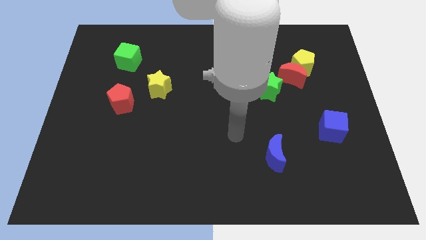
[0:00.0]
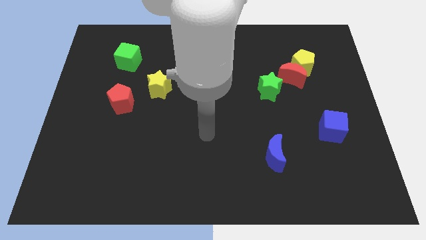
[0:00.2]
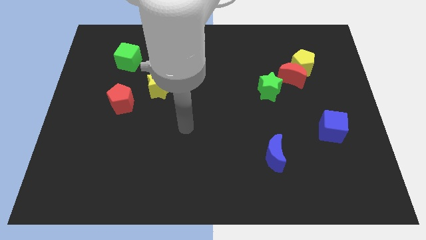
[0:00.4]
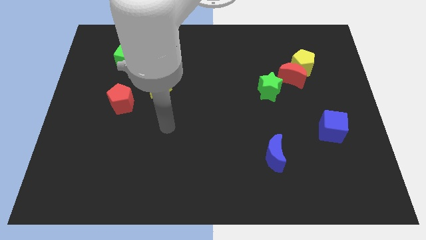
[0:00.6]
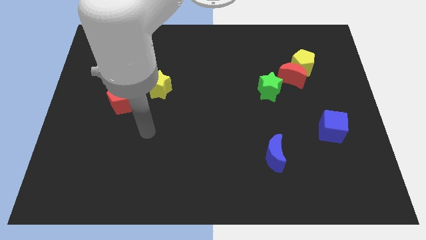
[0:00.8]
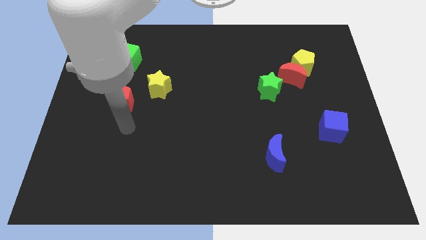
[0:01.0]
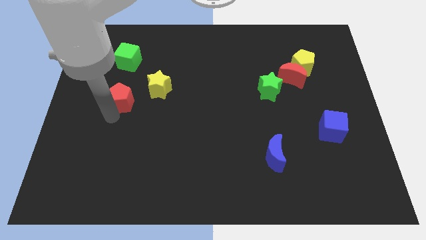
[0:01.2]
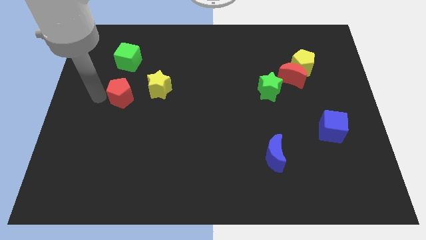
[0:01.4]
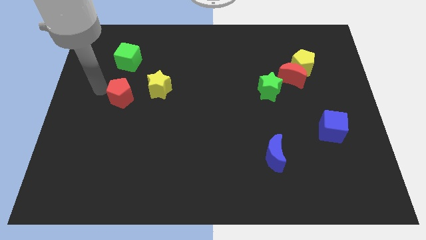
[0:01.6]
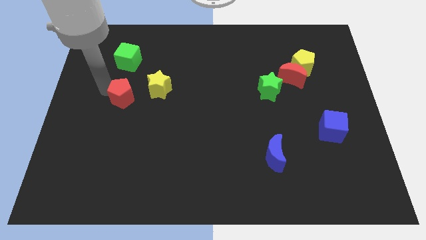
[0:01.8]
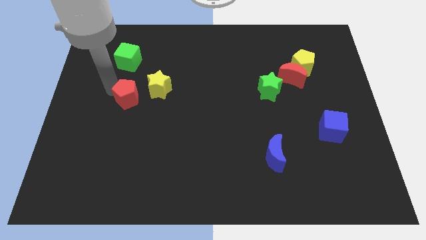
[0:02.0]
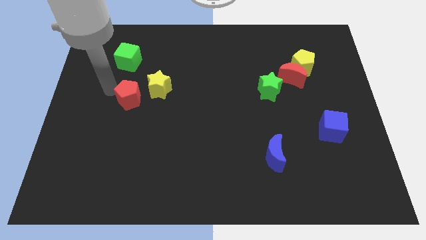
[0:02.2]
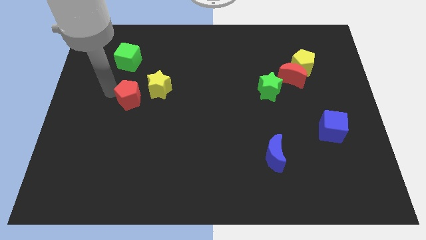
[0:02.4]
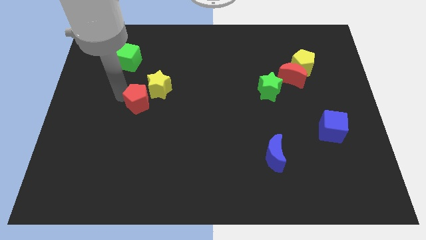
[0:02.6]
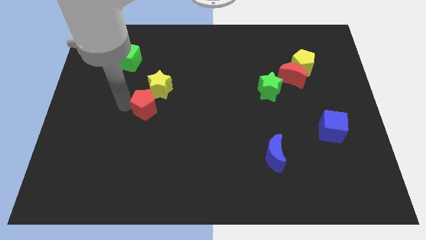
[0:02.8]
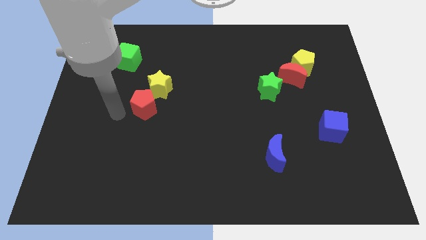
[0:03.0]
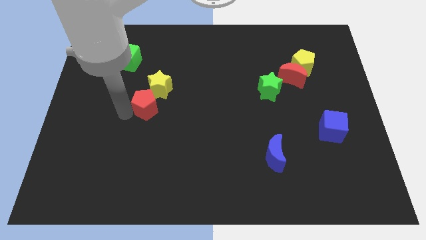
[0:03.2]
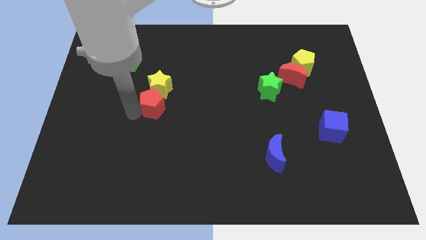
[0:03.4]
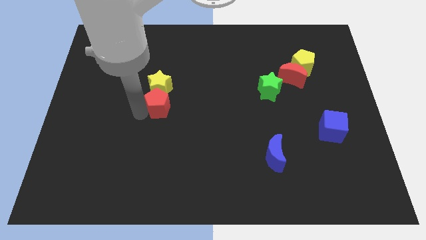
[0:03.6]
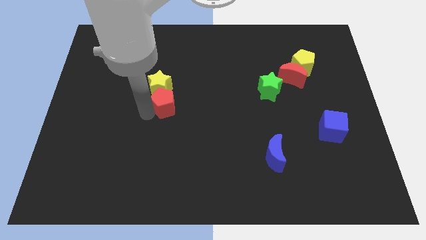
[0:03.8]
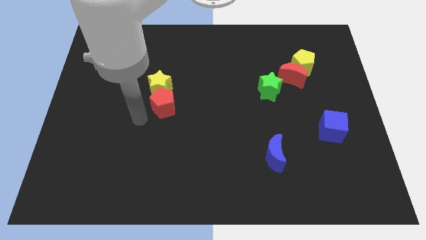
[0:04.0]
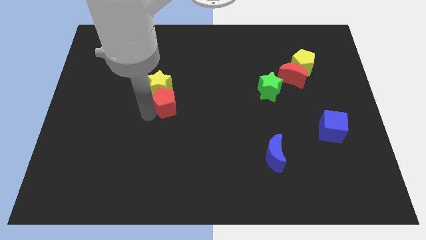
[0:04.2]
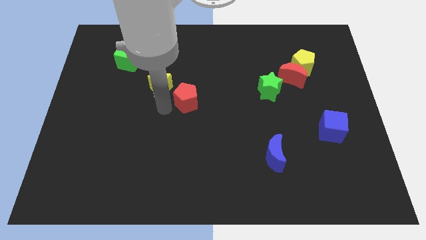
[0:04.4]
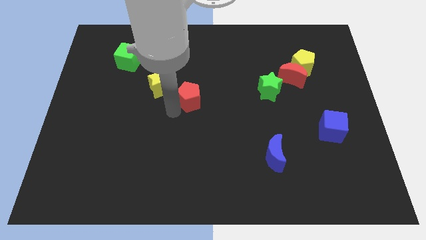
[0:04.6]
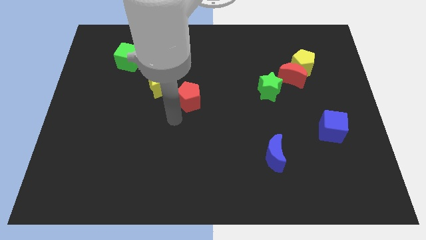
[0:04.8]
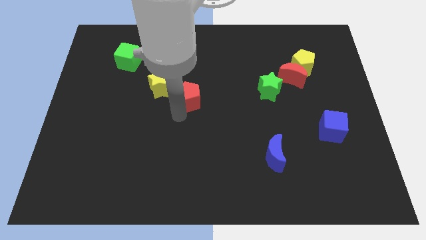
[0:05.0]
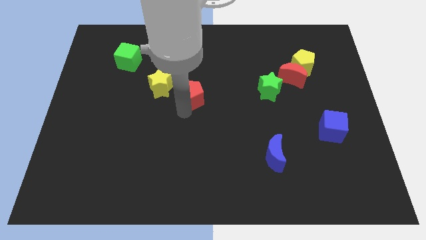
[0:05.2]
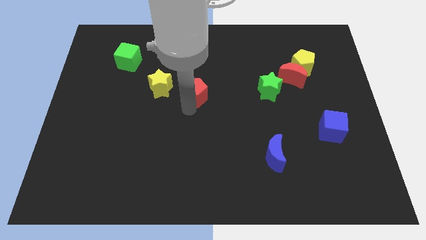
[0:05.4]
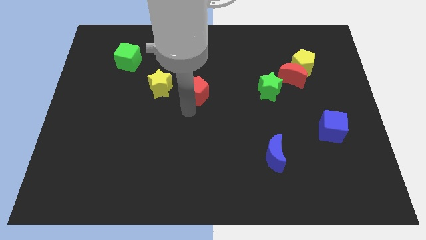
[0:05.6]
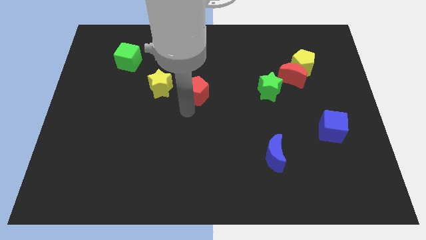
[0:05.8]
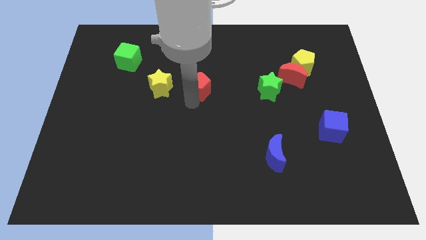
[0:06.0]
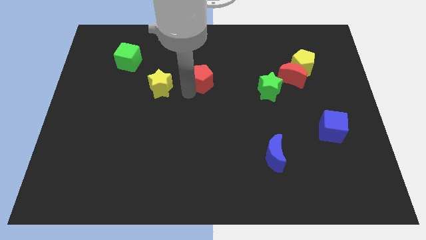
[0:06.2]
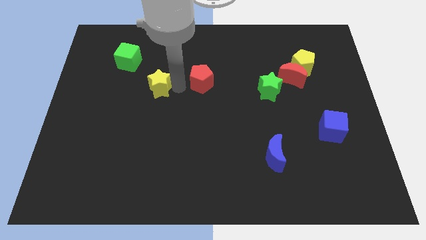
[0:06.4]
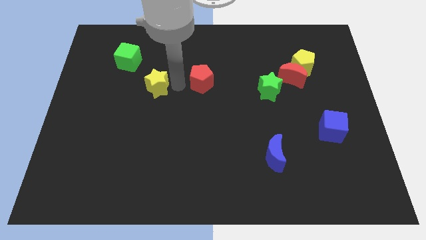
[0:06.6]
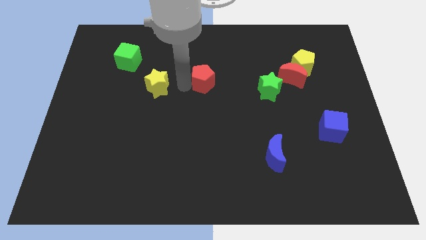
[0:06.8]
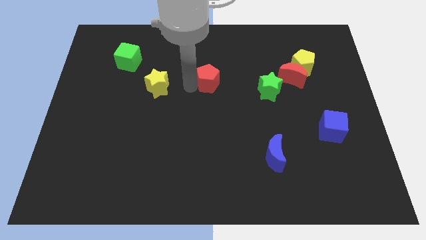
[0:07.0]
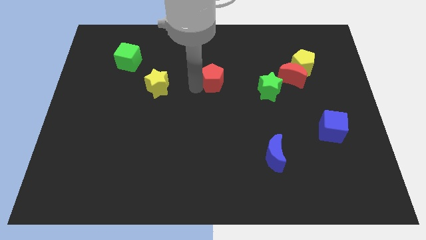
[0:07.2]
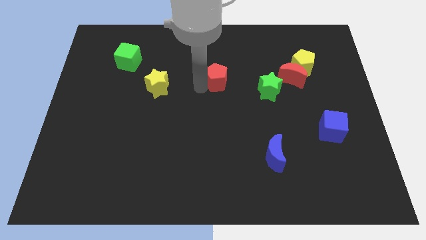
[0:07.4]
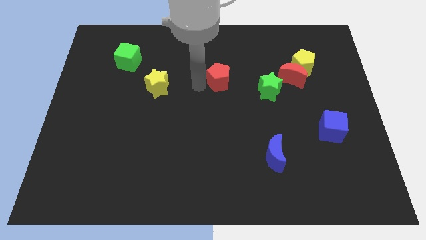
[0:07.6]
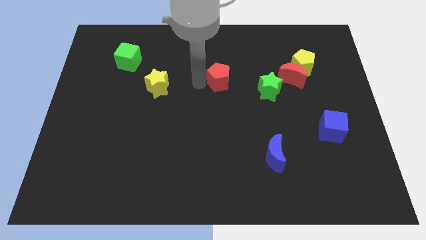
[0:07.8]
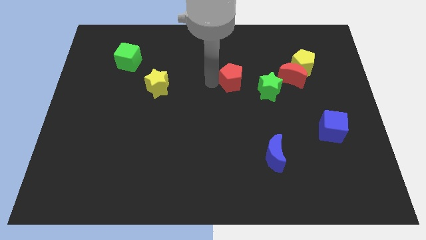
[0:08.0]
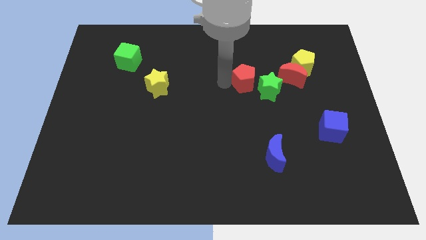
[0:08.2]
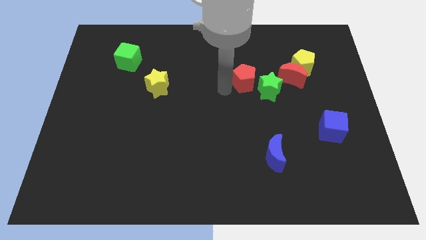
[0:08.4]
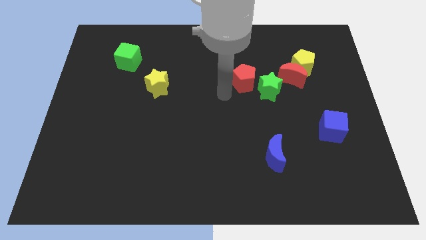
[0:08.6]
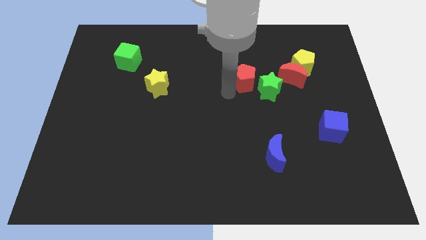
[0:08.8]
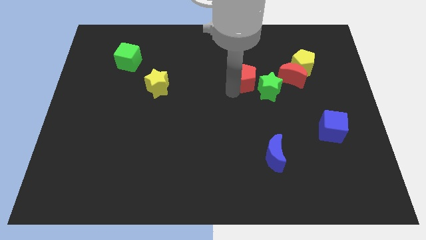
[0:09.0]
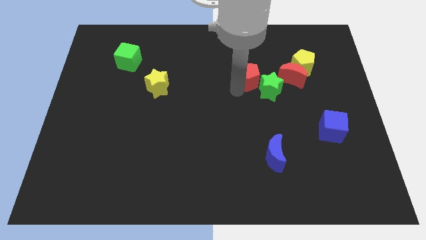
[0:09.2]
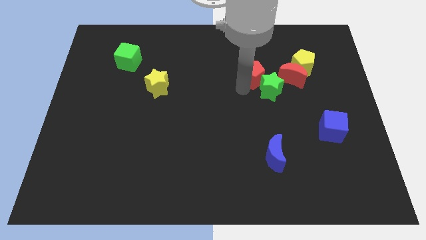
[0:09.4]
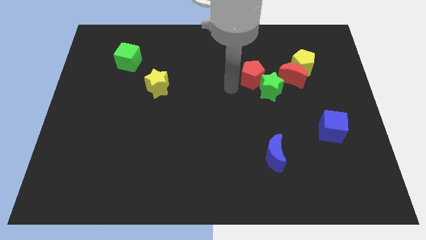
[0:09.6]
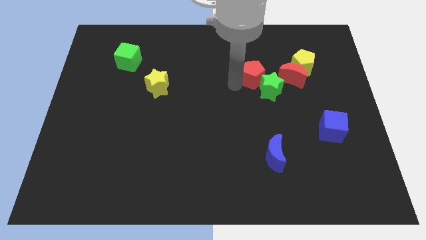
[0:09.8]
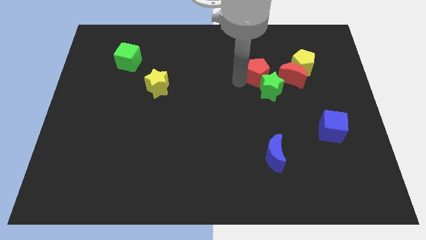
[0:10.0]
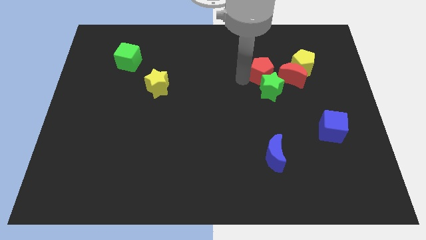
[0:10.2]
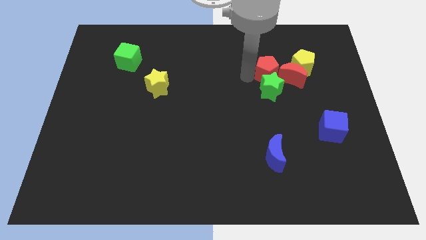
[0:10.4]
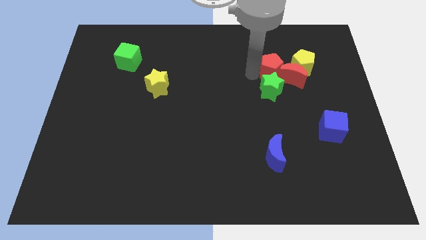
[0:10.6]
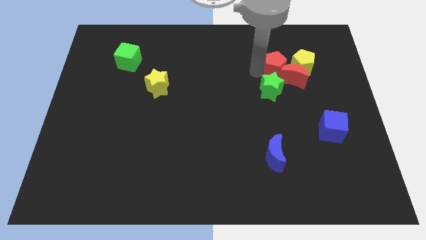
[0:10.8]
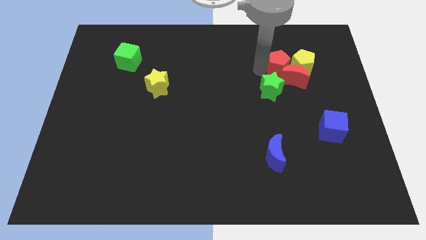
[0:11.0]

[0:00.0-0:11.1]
move the red pentagon towards the yellow pentagon
